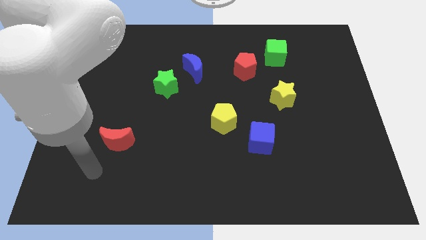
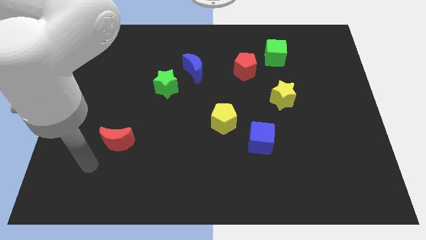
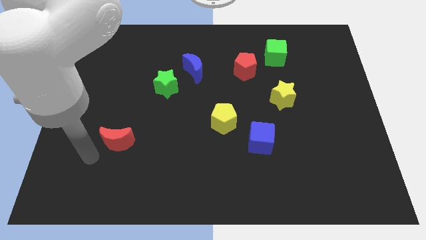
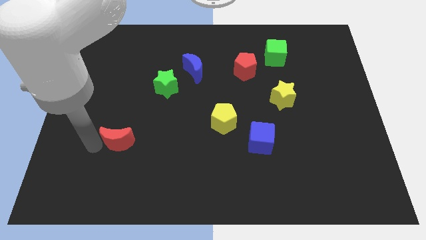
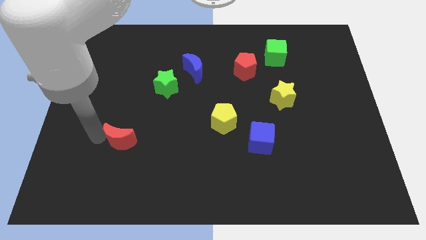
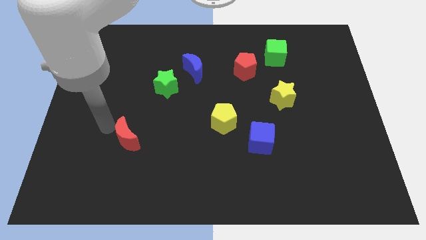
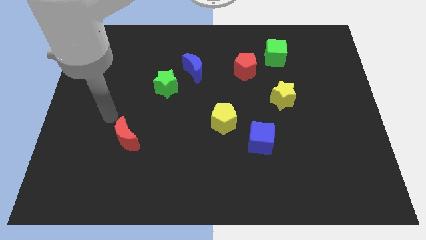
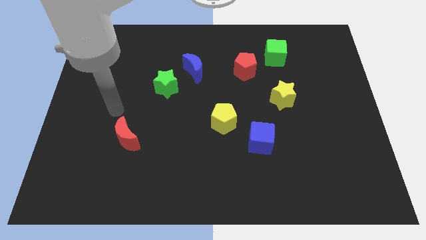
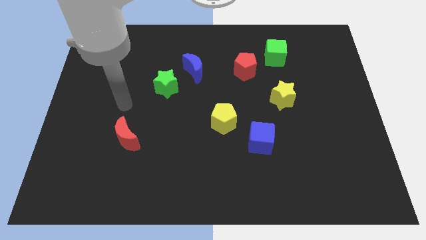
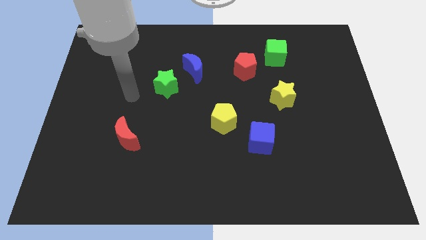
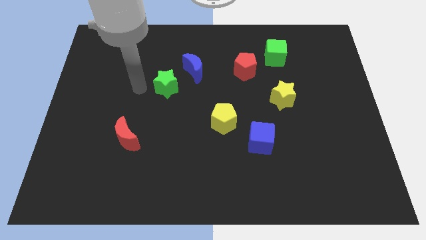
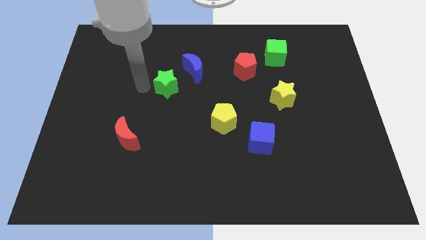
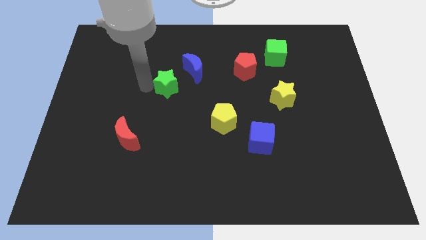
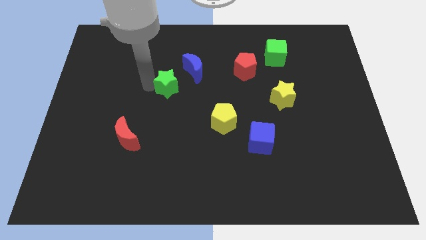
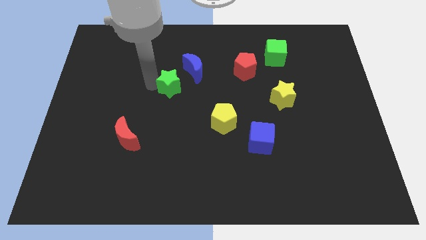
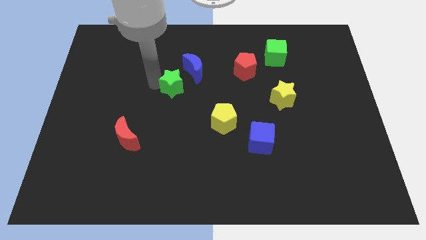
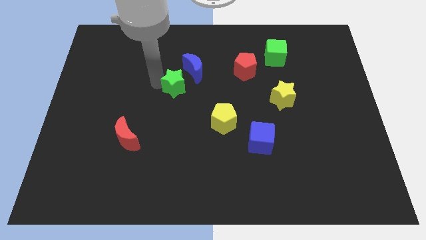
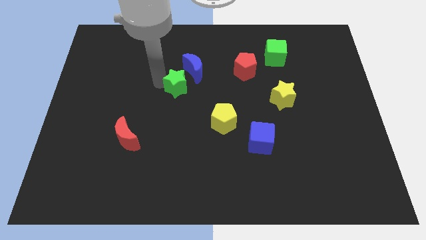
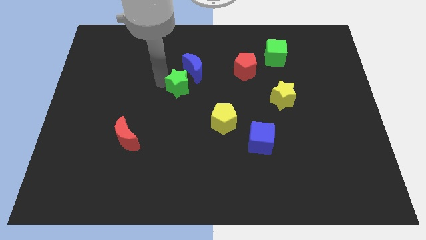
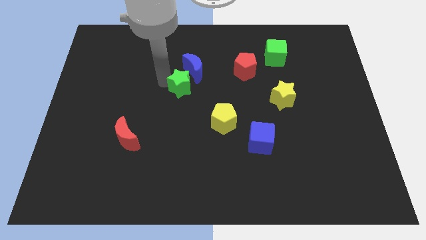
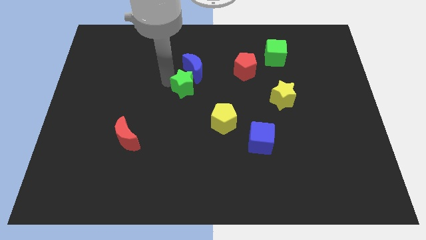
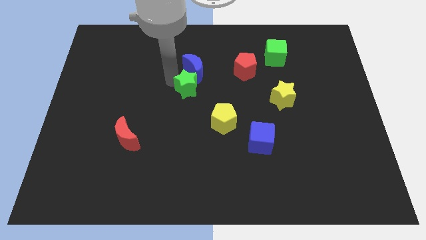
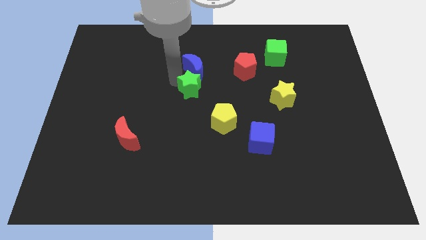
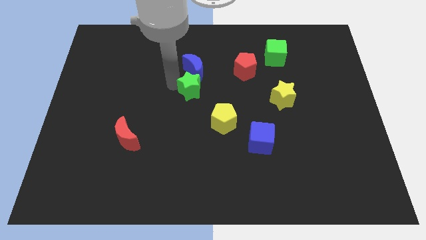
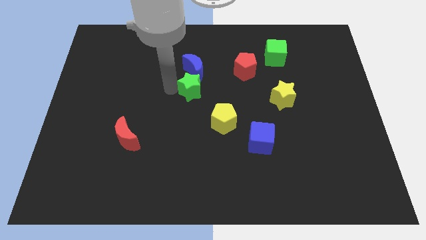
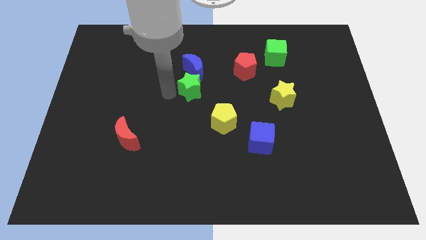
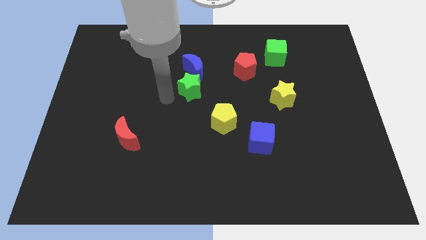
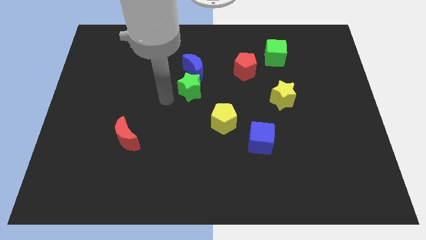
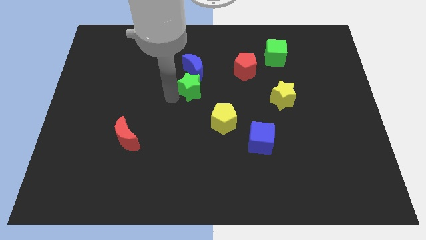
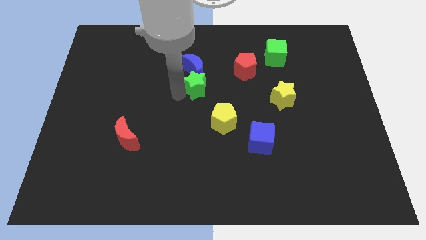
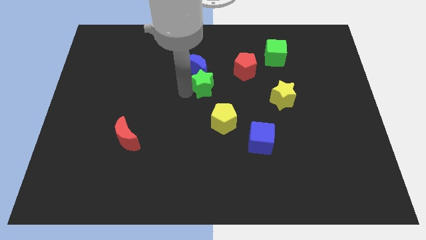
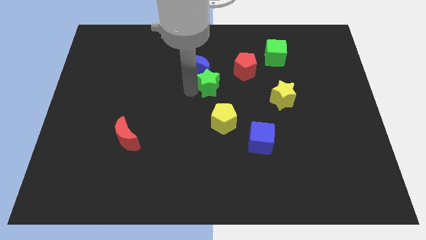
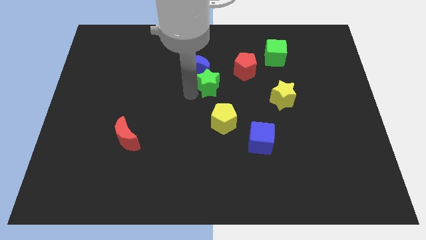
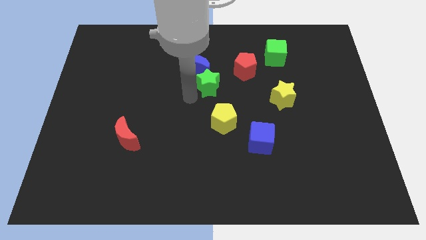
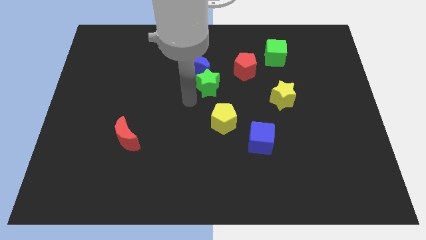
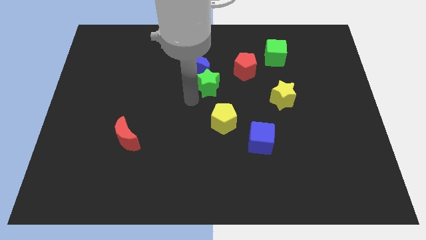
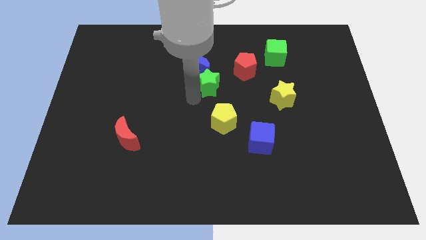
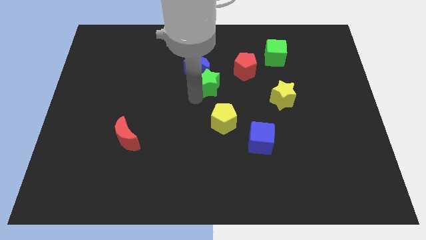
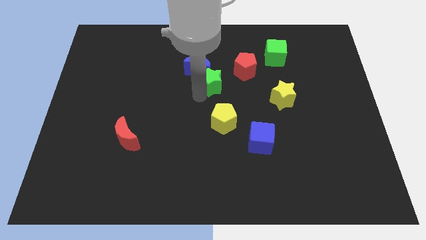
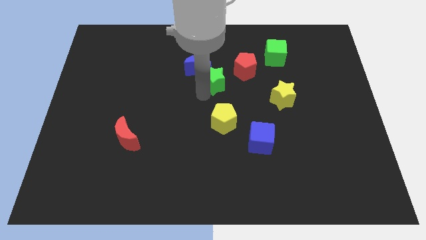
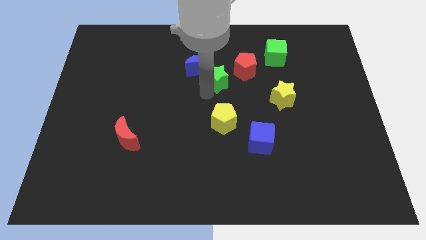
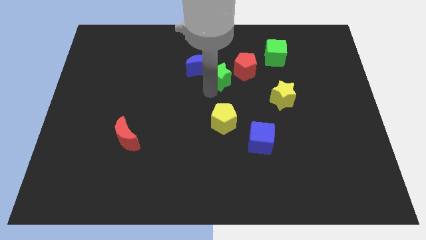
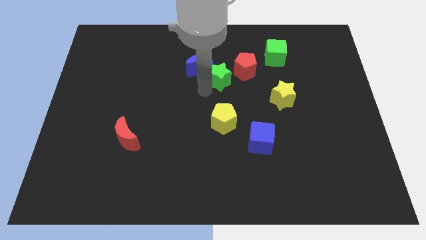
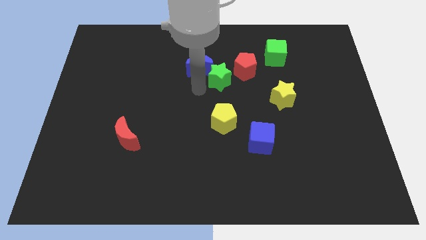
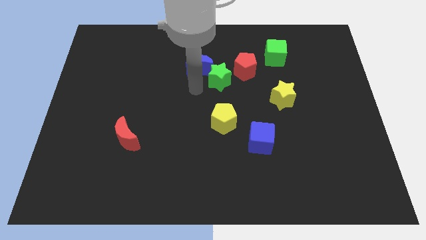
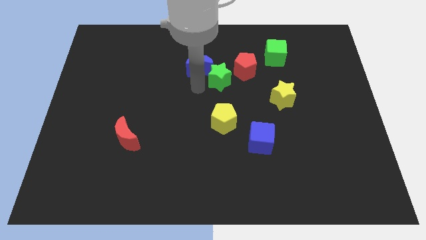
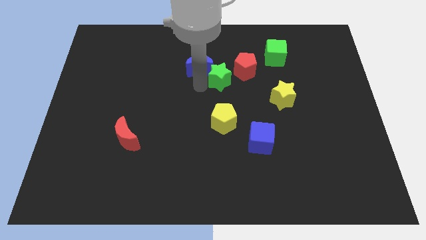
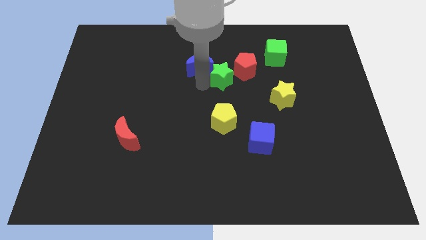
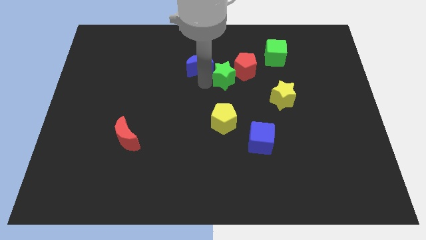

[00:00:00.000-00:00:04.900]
push the green star to the red pentagon

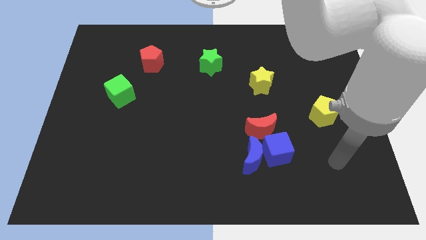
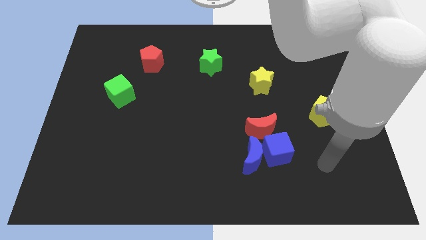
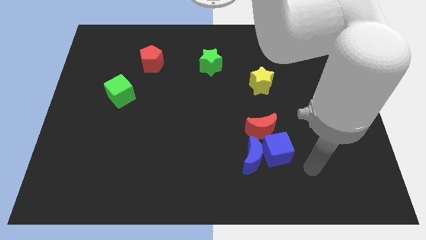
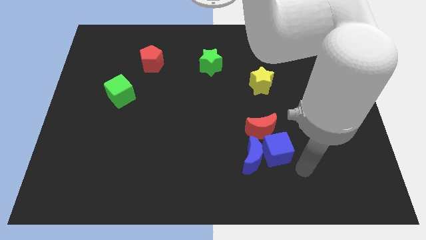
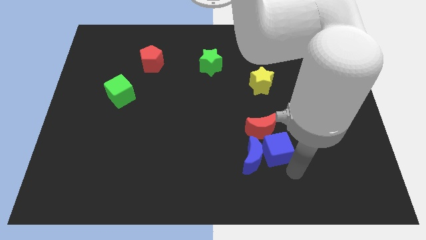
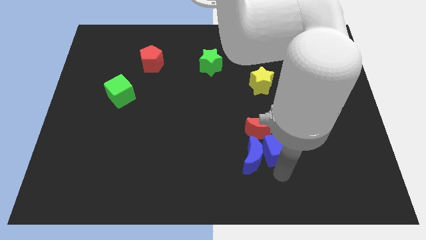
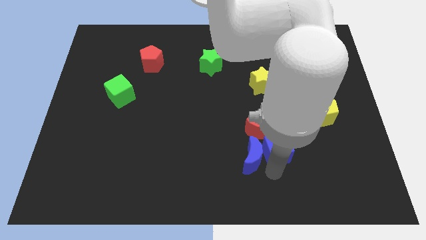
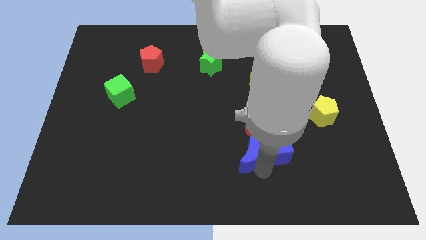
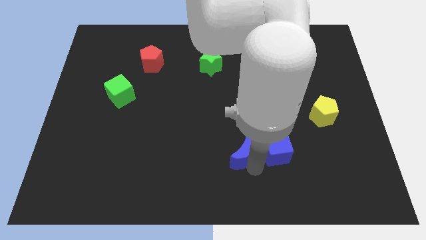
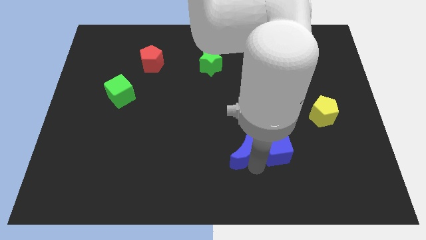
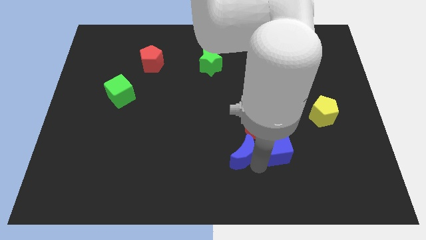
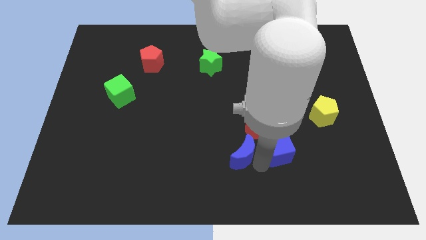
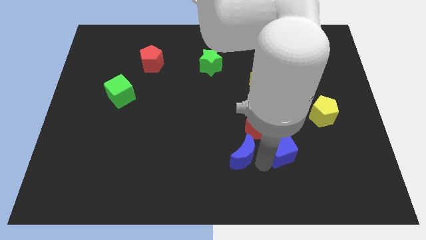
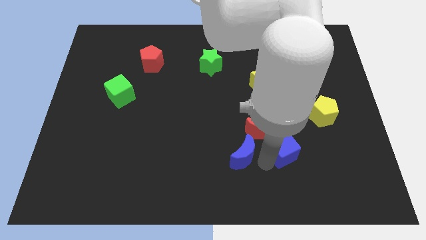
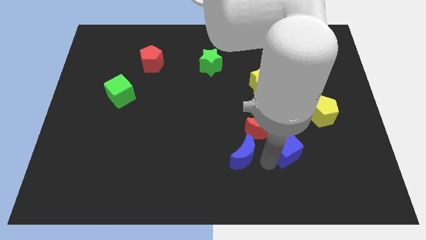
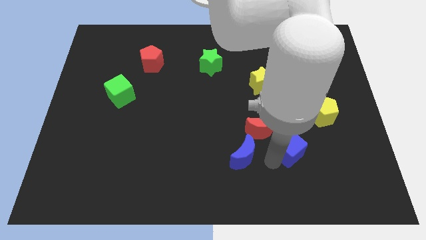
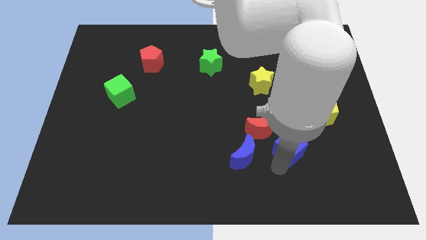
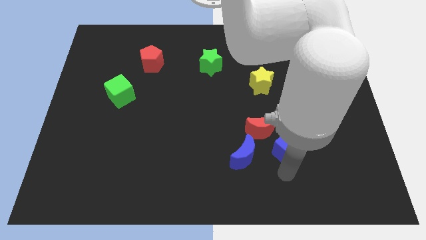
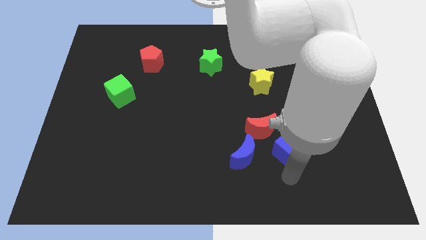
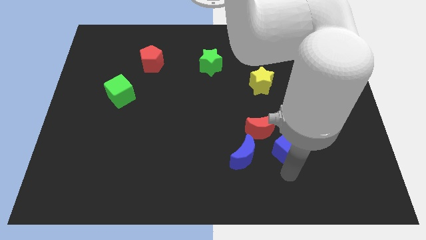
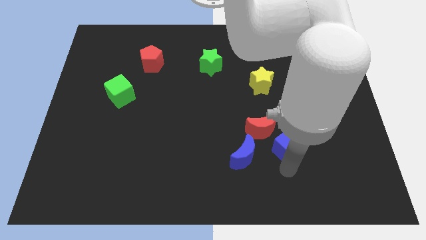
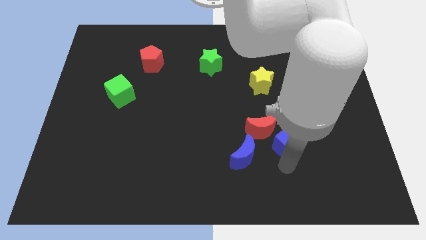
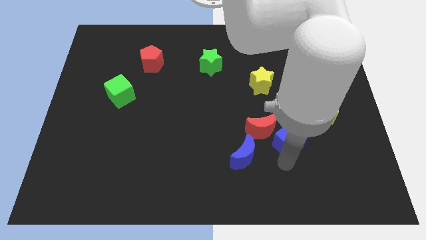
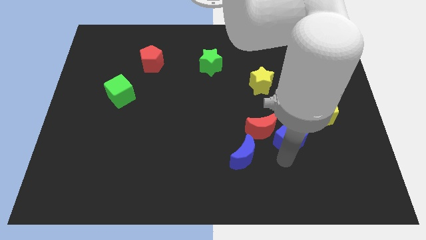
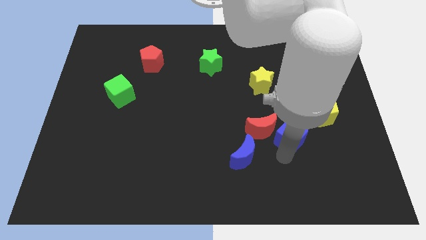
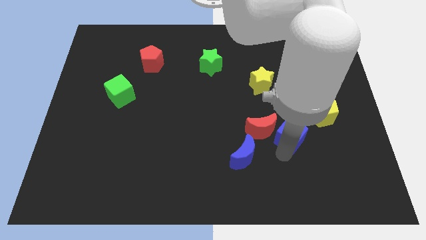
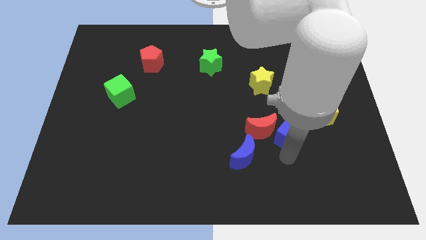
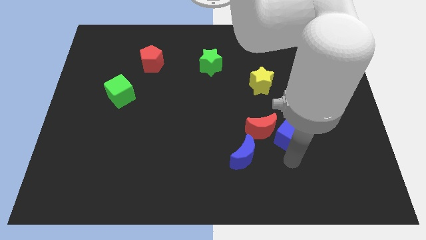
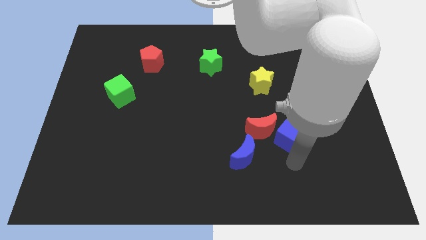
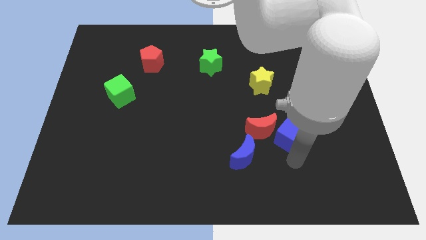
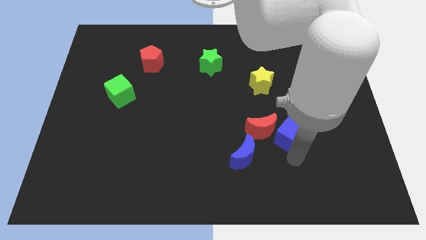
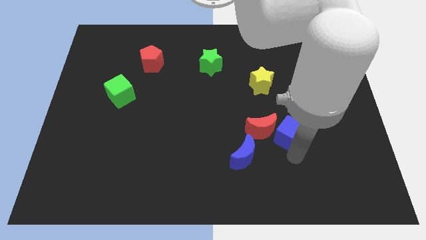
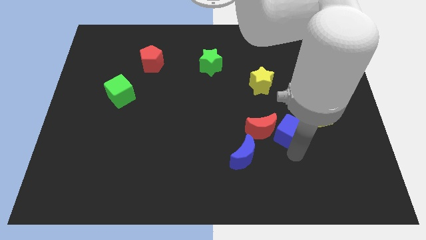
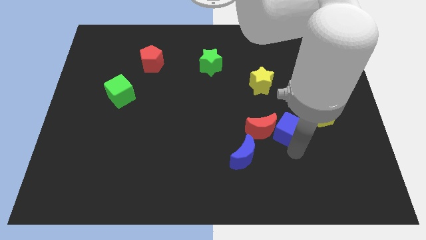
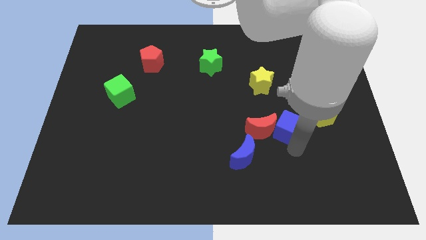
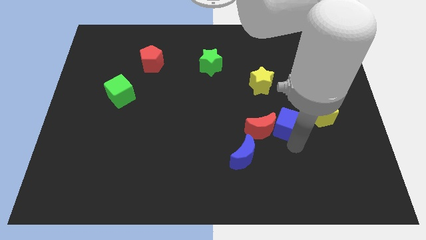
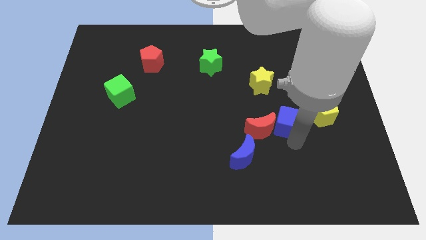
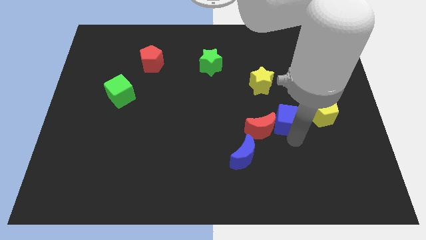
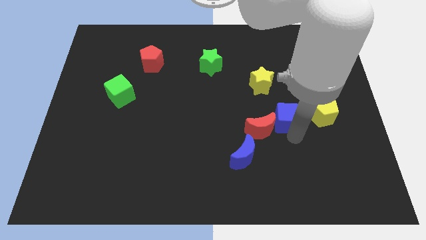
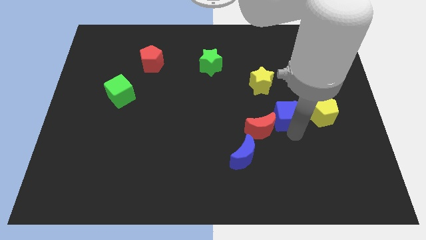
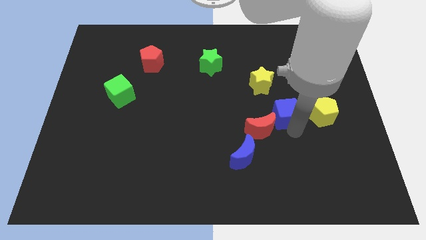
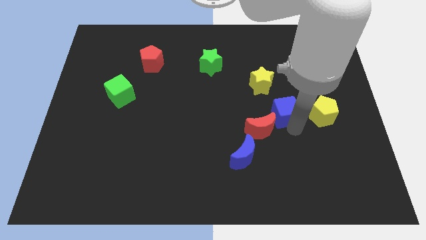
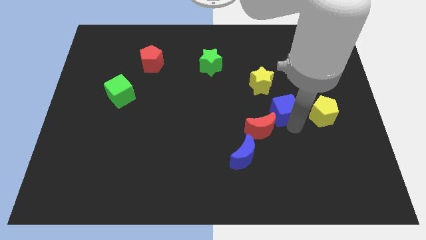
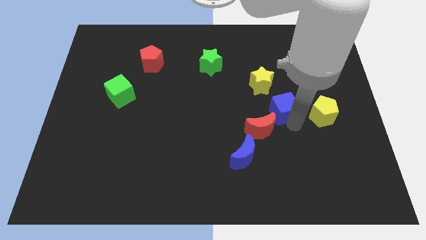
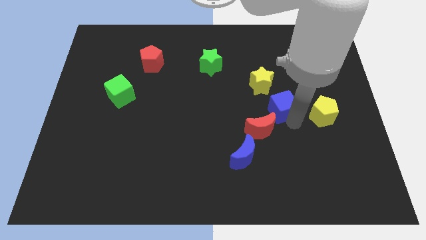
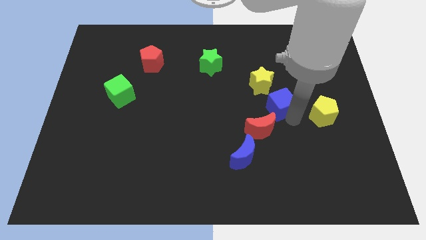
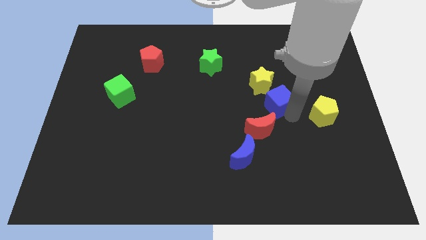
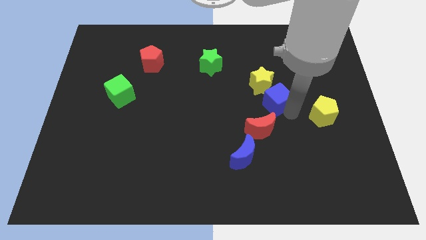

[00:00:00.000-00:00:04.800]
move the blue cube to the yellow star
